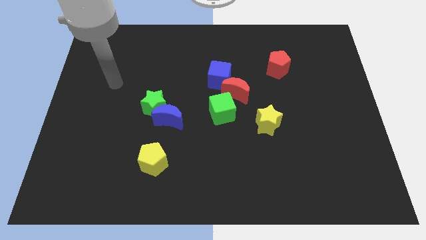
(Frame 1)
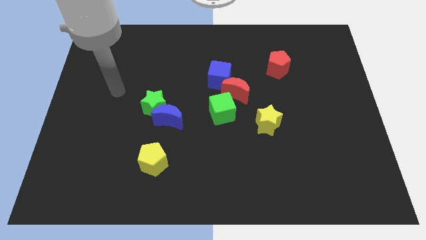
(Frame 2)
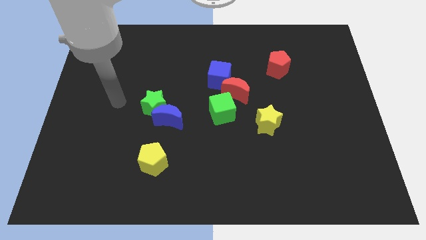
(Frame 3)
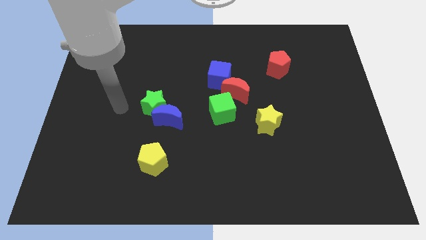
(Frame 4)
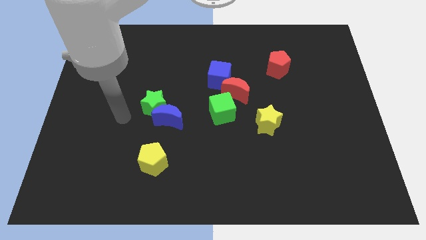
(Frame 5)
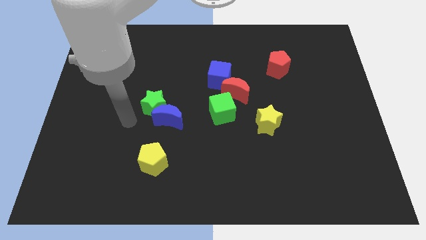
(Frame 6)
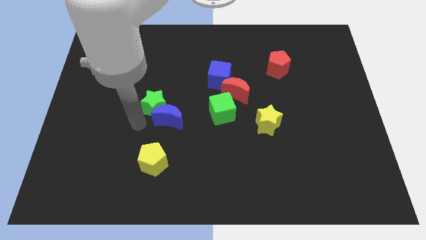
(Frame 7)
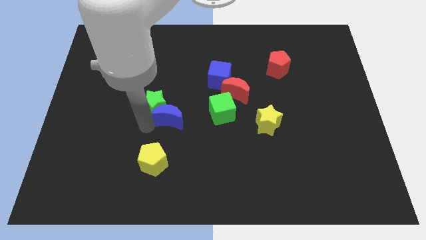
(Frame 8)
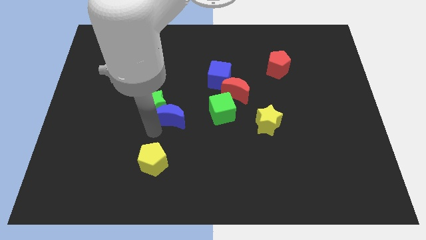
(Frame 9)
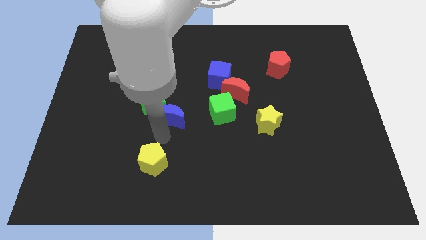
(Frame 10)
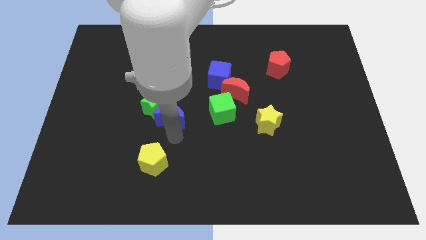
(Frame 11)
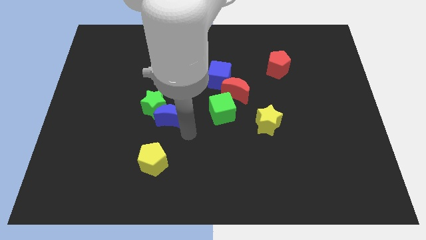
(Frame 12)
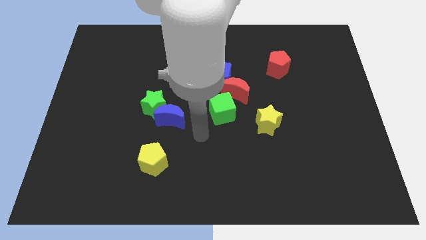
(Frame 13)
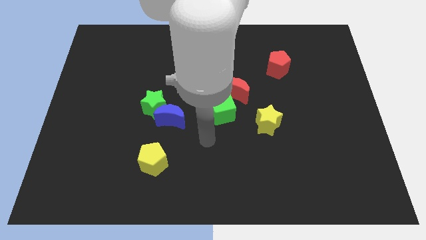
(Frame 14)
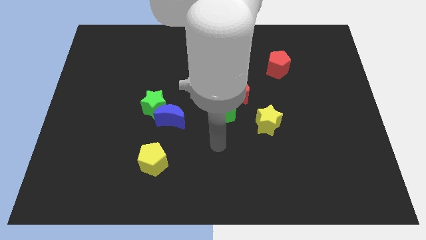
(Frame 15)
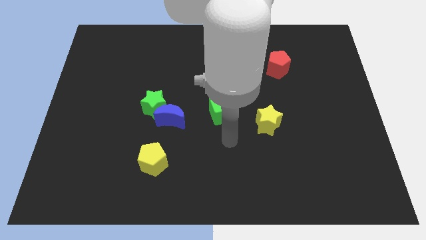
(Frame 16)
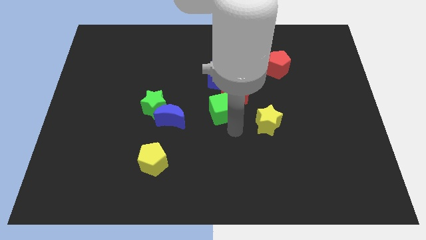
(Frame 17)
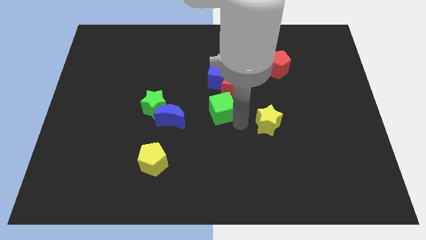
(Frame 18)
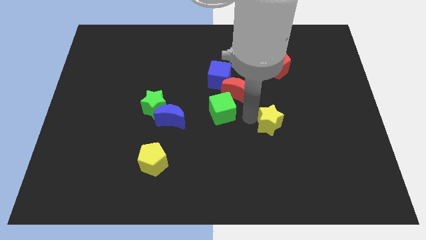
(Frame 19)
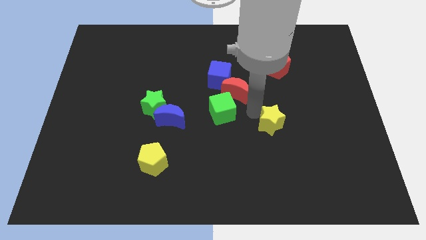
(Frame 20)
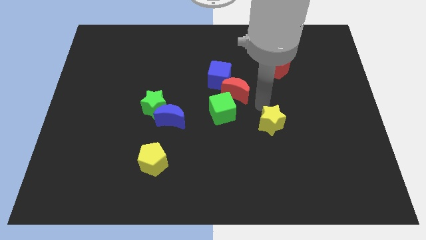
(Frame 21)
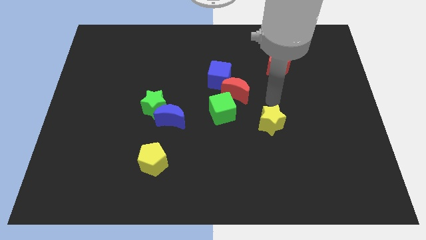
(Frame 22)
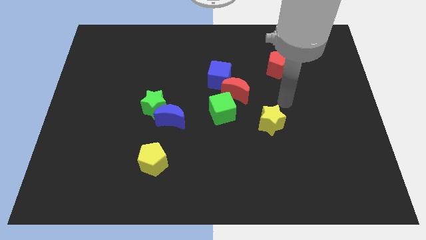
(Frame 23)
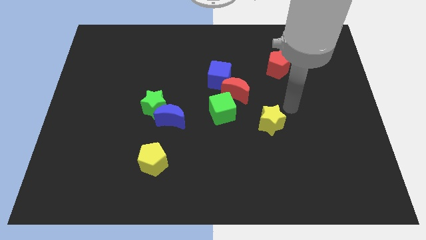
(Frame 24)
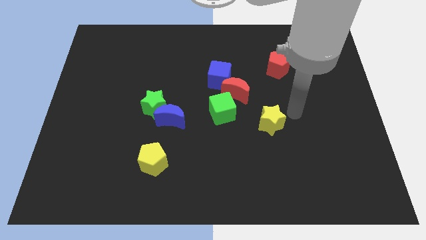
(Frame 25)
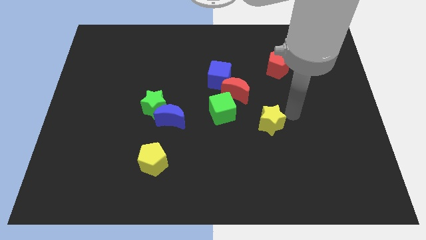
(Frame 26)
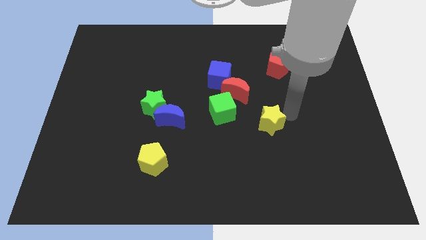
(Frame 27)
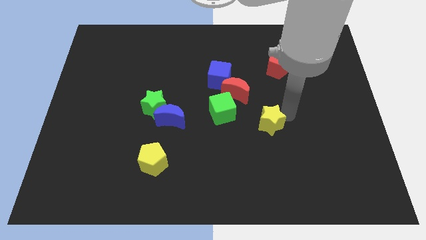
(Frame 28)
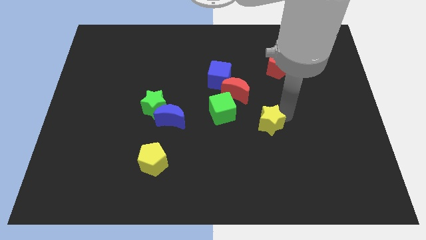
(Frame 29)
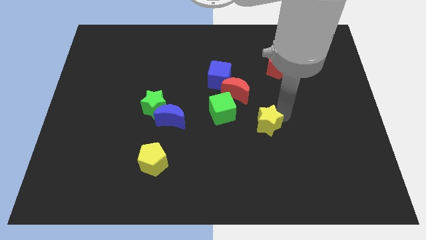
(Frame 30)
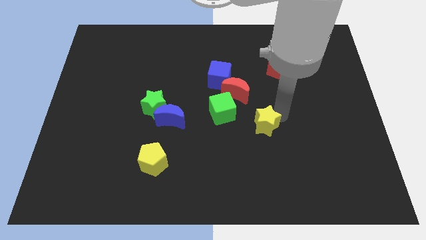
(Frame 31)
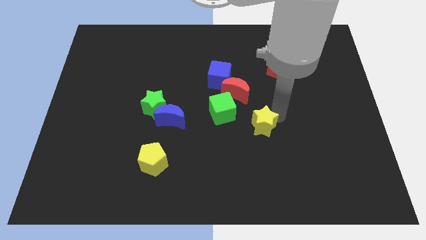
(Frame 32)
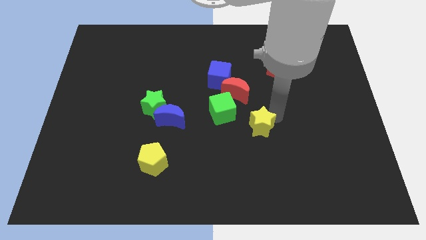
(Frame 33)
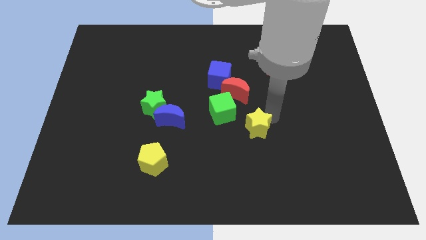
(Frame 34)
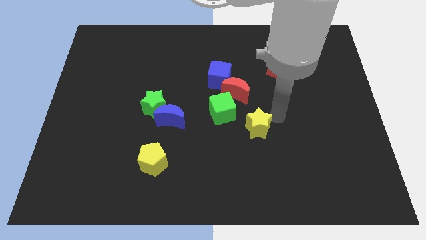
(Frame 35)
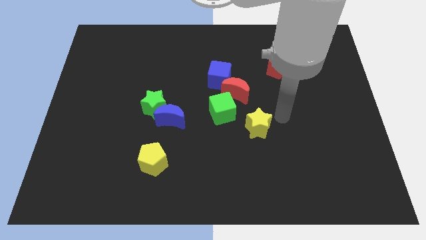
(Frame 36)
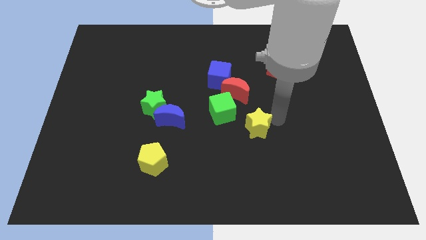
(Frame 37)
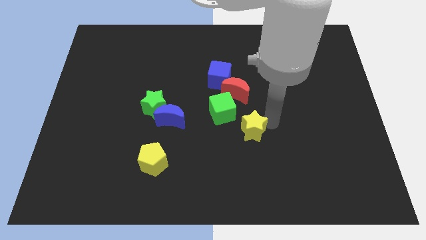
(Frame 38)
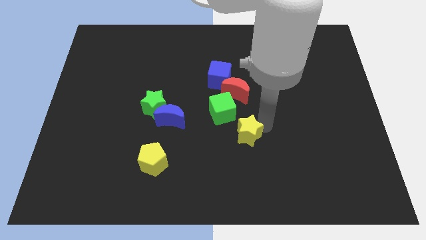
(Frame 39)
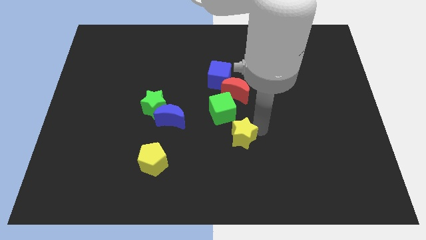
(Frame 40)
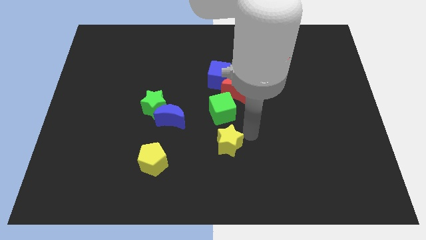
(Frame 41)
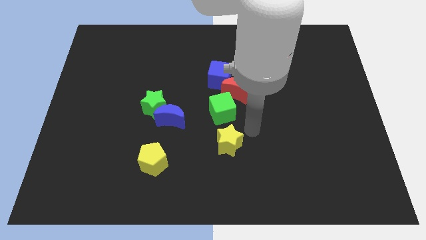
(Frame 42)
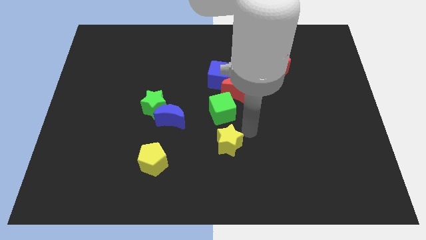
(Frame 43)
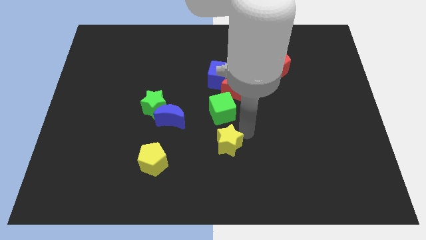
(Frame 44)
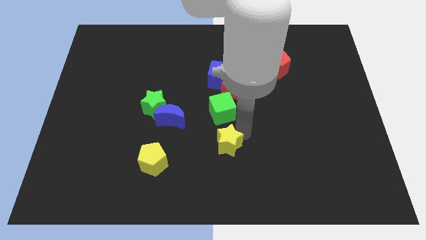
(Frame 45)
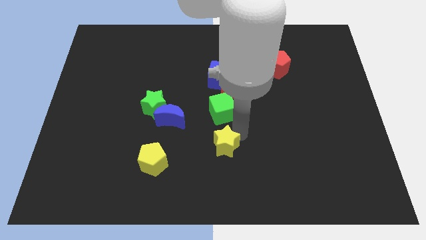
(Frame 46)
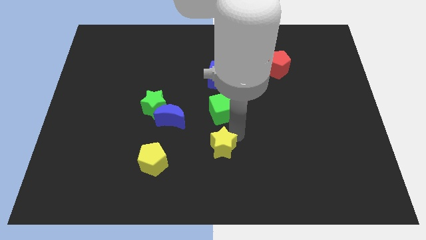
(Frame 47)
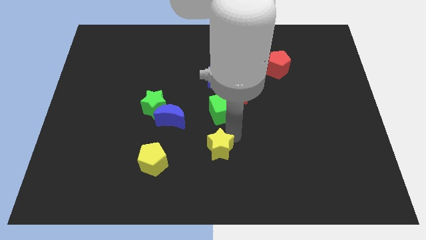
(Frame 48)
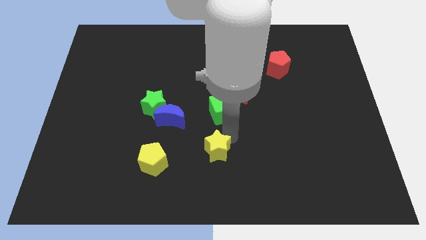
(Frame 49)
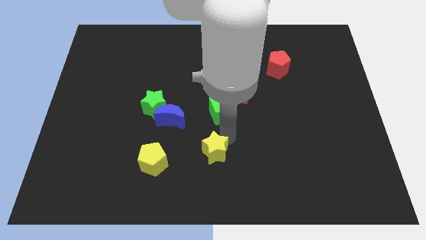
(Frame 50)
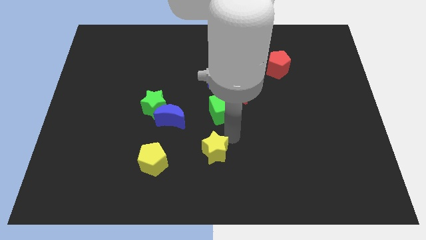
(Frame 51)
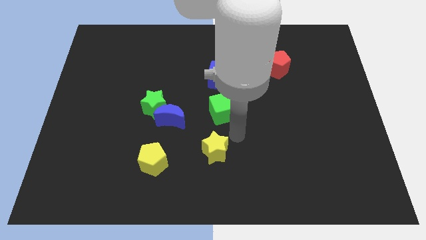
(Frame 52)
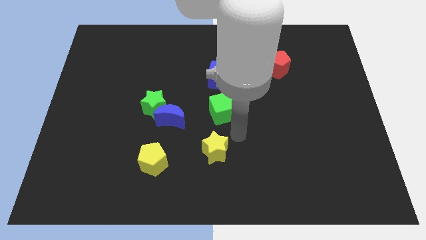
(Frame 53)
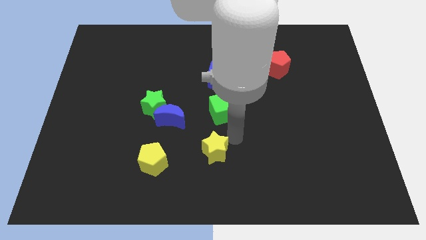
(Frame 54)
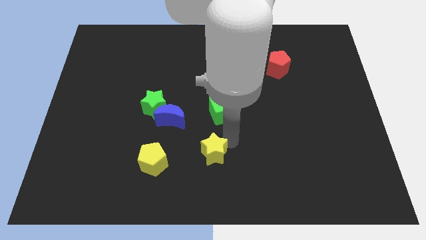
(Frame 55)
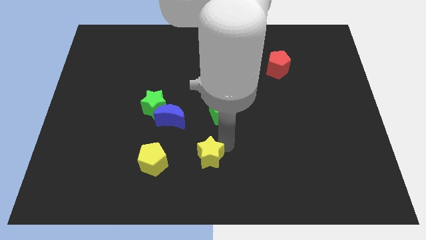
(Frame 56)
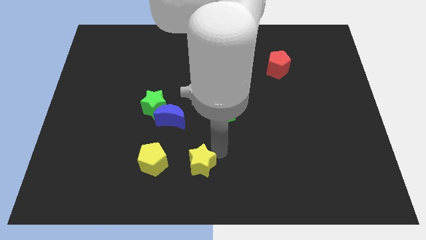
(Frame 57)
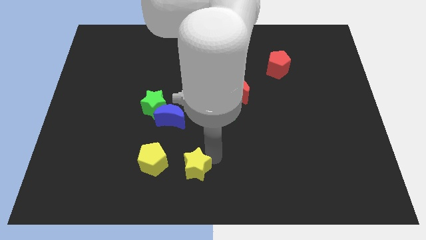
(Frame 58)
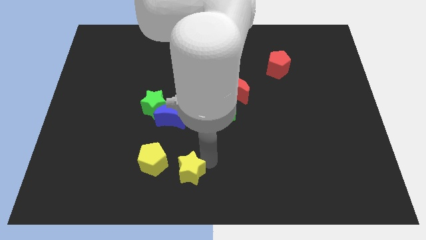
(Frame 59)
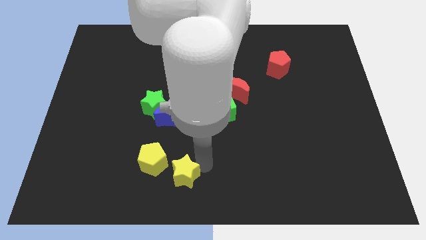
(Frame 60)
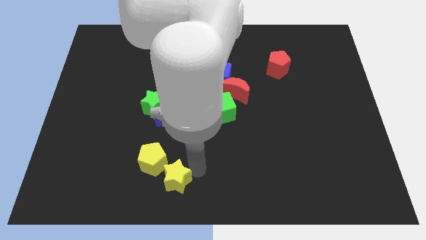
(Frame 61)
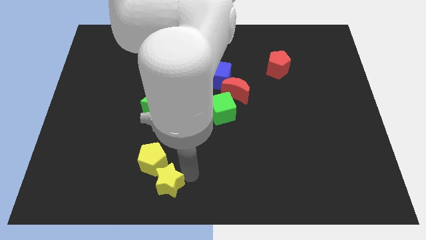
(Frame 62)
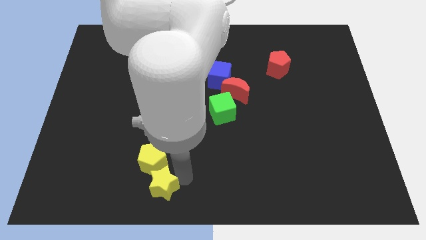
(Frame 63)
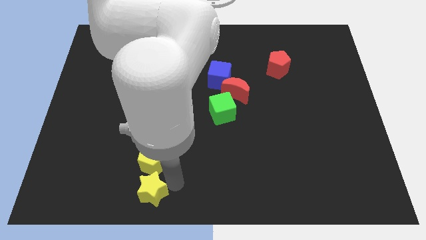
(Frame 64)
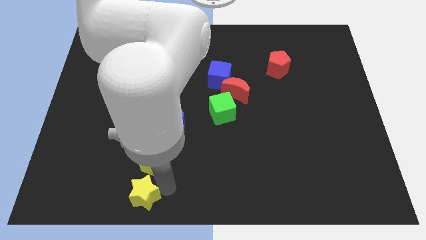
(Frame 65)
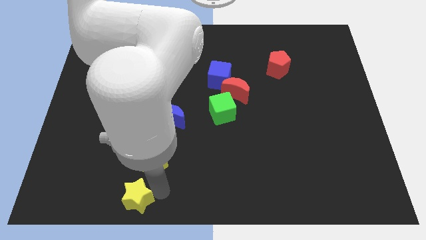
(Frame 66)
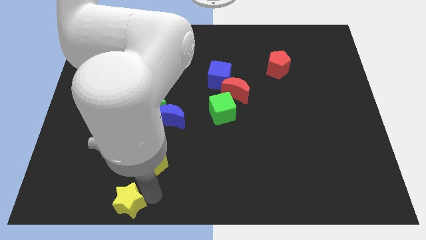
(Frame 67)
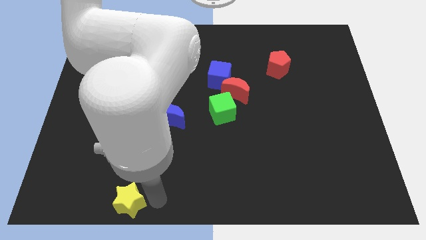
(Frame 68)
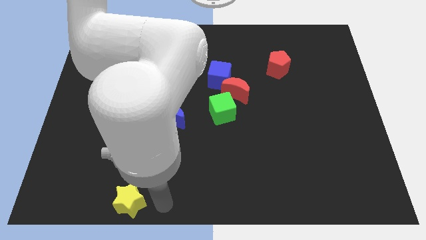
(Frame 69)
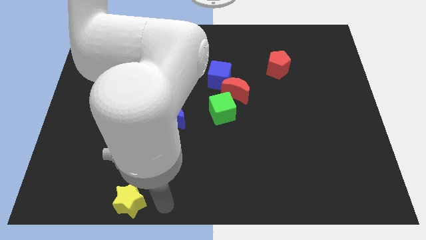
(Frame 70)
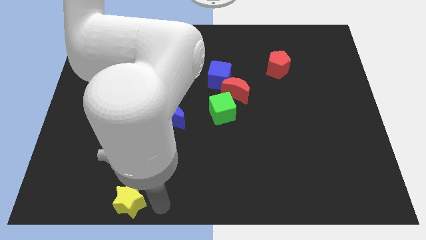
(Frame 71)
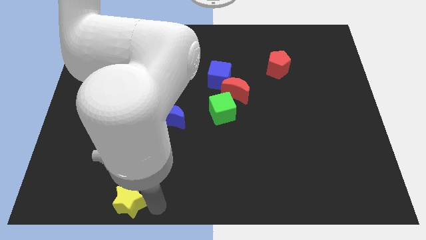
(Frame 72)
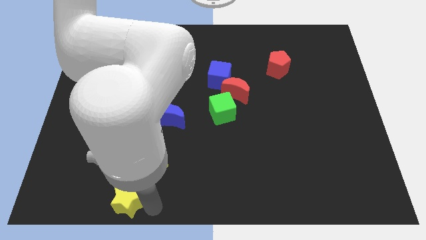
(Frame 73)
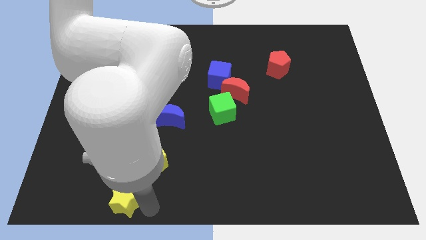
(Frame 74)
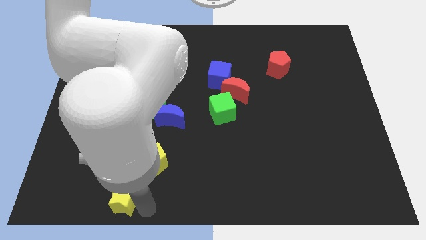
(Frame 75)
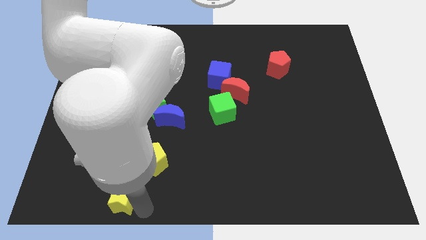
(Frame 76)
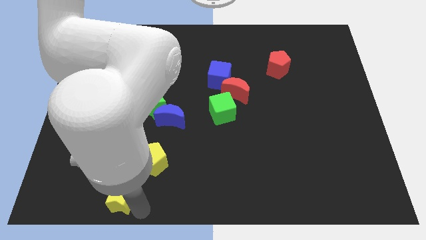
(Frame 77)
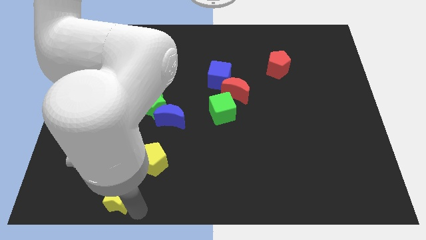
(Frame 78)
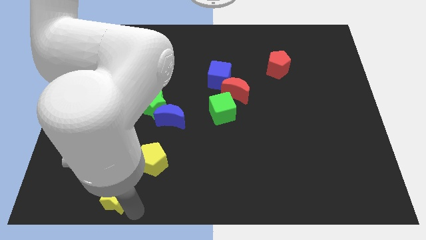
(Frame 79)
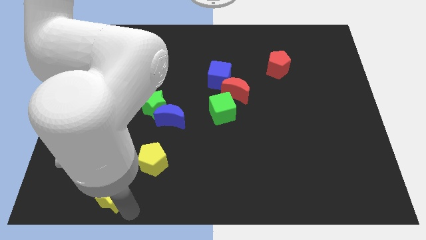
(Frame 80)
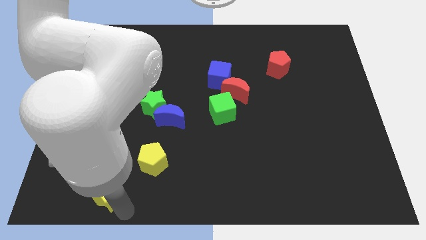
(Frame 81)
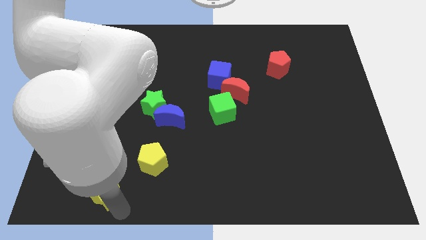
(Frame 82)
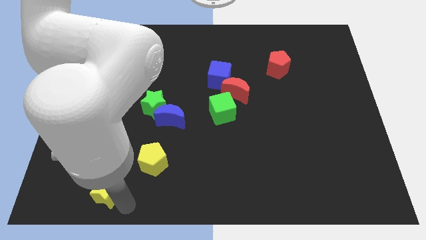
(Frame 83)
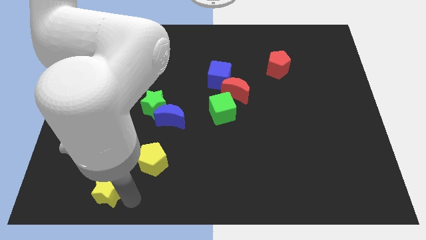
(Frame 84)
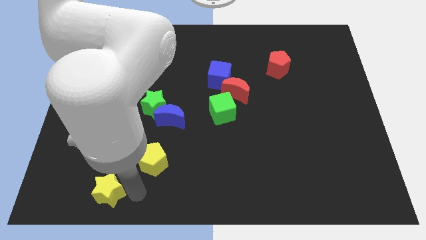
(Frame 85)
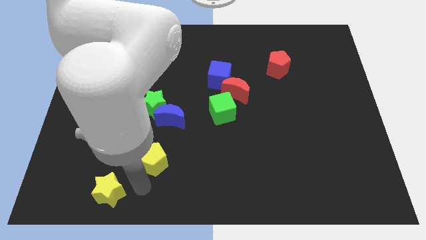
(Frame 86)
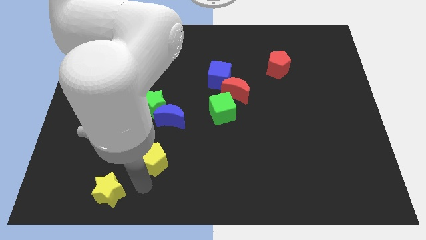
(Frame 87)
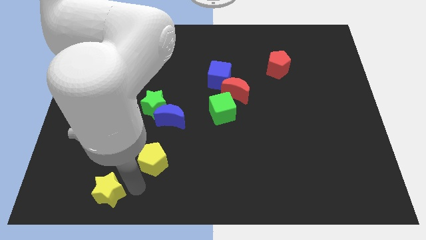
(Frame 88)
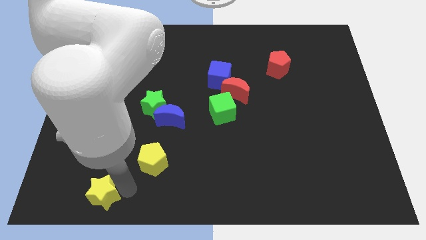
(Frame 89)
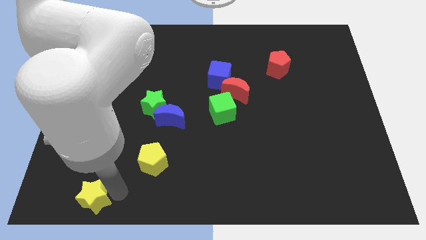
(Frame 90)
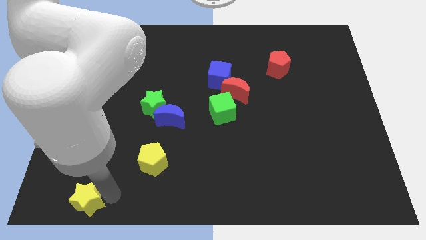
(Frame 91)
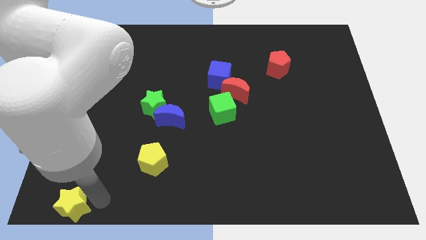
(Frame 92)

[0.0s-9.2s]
push the yellow star to the bottom left of the board
